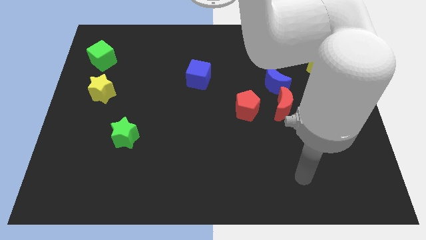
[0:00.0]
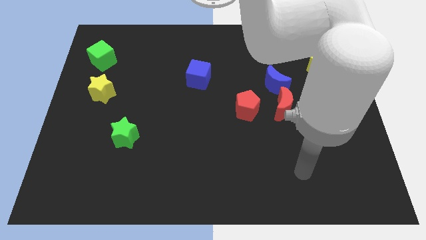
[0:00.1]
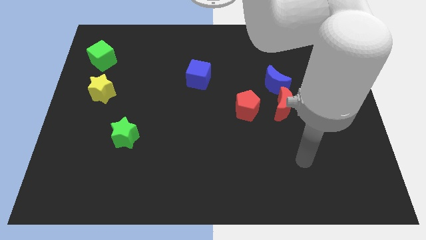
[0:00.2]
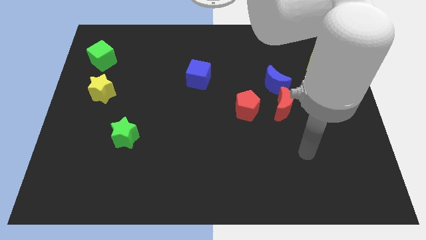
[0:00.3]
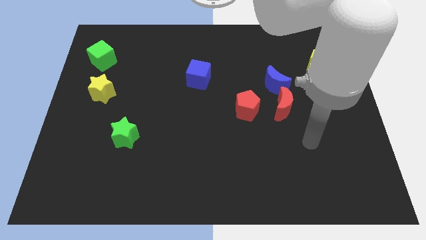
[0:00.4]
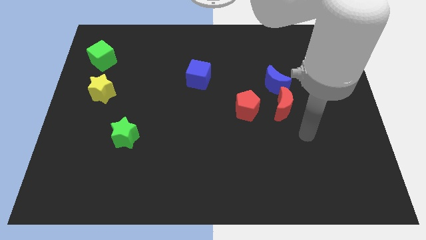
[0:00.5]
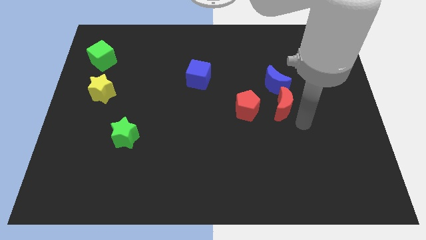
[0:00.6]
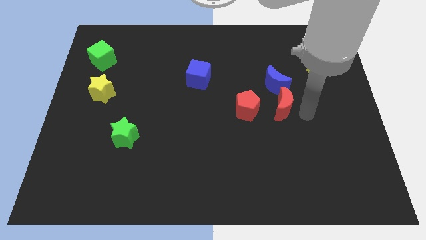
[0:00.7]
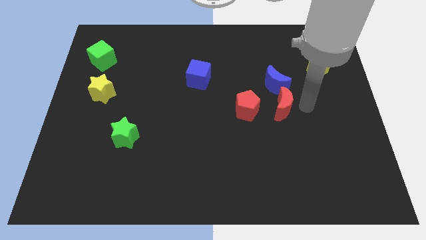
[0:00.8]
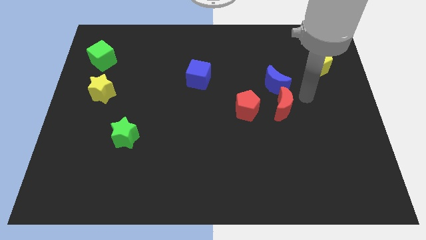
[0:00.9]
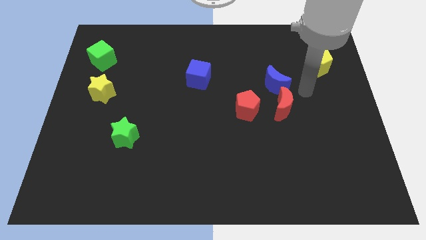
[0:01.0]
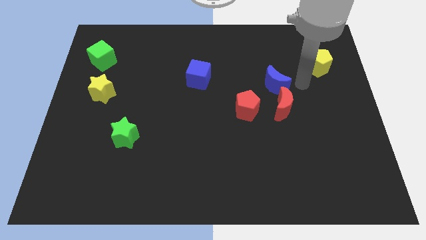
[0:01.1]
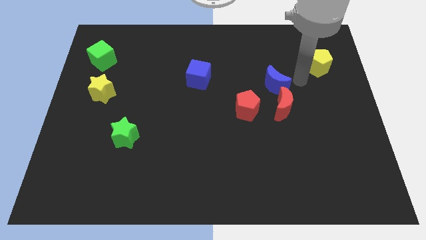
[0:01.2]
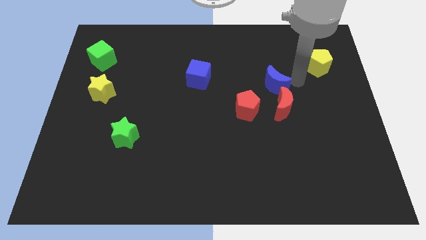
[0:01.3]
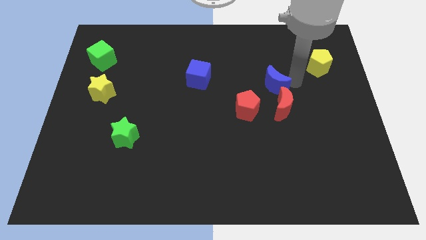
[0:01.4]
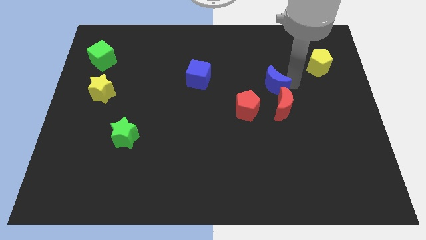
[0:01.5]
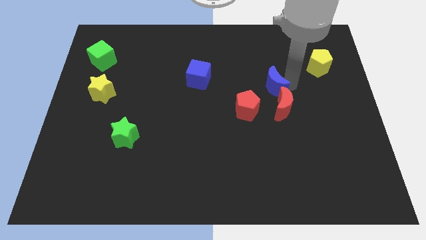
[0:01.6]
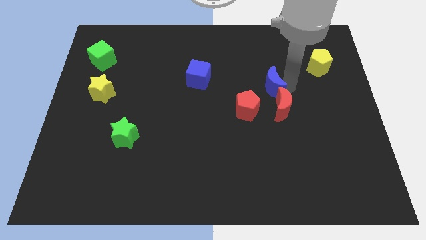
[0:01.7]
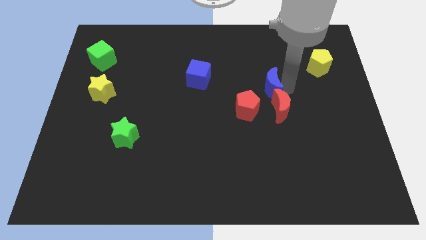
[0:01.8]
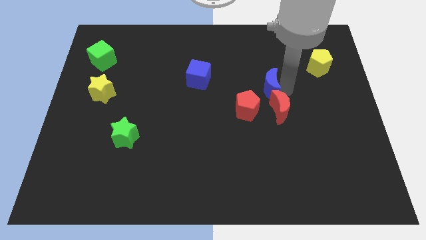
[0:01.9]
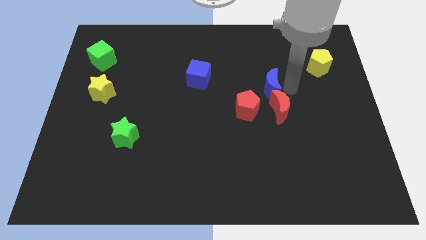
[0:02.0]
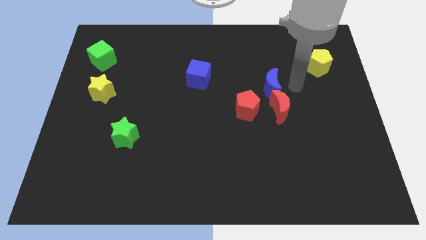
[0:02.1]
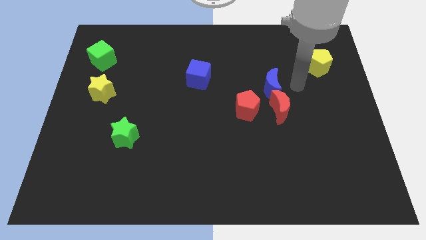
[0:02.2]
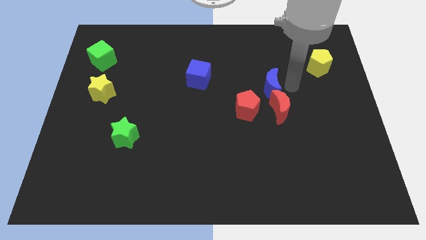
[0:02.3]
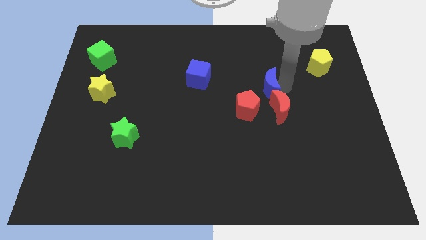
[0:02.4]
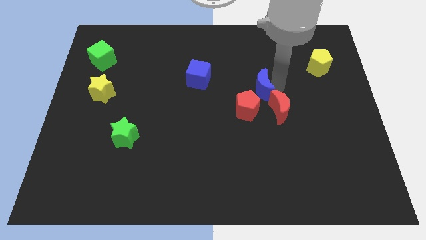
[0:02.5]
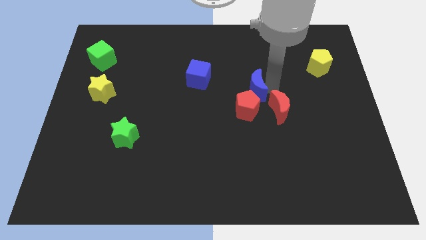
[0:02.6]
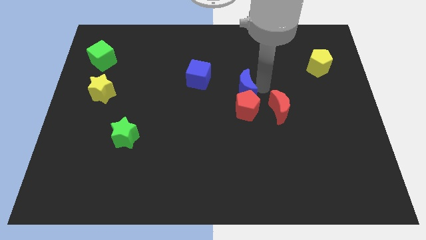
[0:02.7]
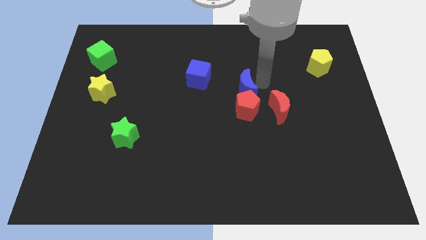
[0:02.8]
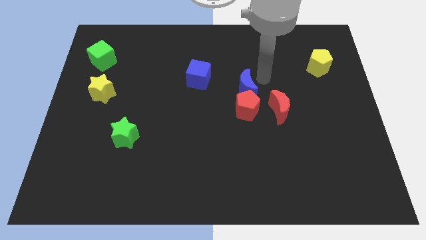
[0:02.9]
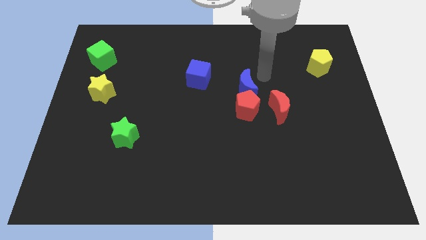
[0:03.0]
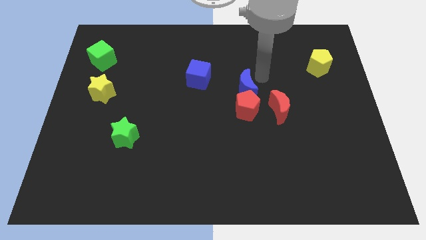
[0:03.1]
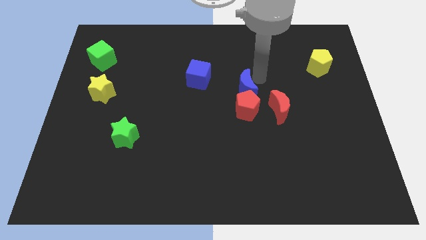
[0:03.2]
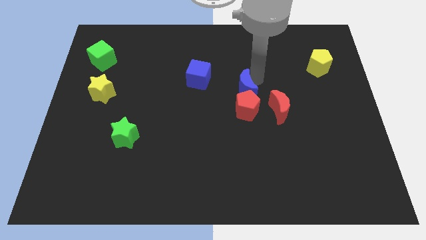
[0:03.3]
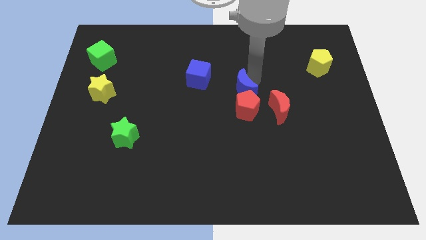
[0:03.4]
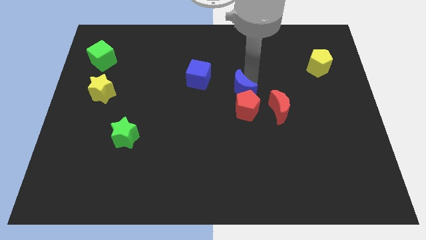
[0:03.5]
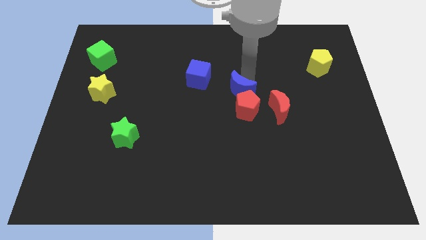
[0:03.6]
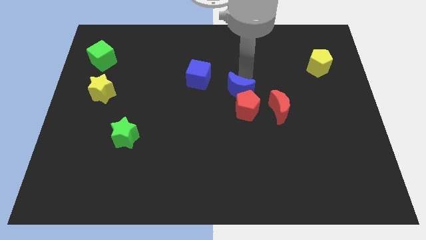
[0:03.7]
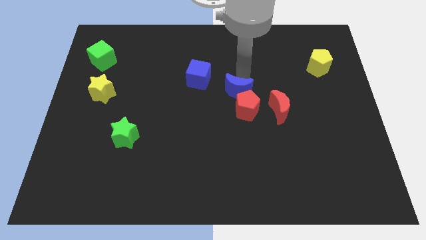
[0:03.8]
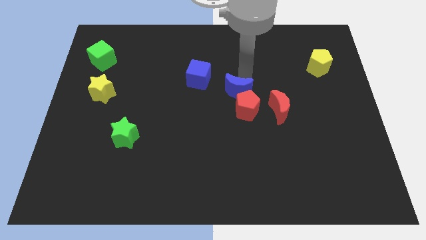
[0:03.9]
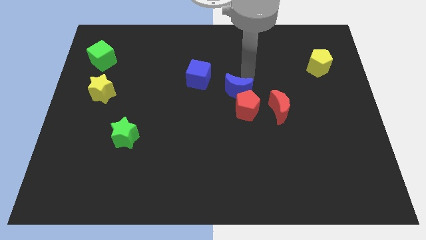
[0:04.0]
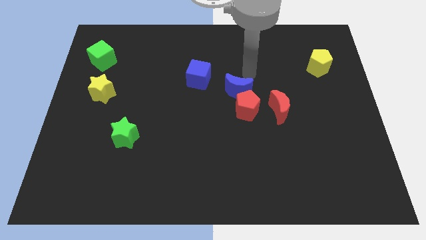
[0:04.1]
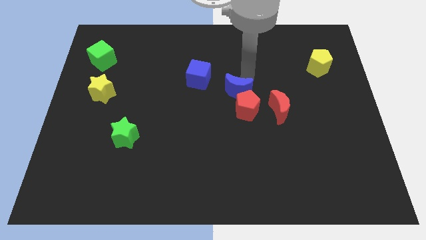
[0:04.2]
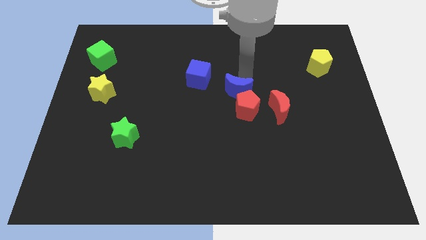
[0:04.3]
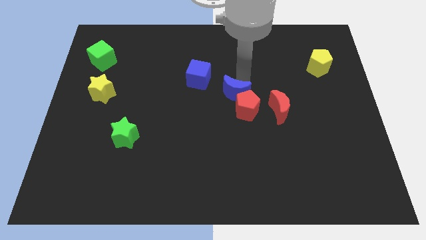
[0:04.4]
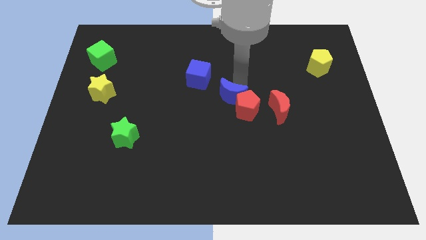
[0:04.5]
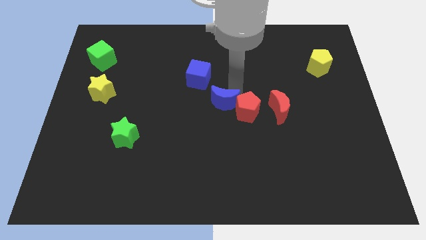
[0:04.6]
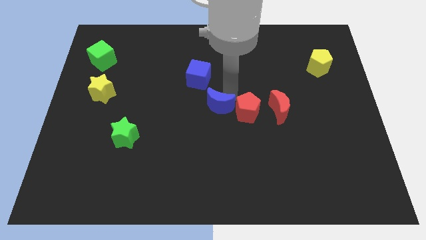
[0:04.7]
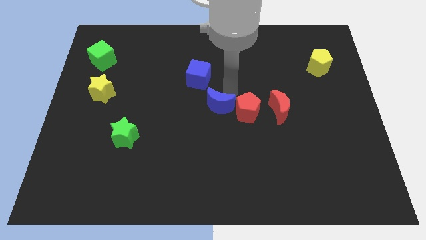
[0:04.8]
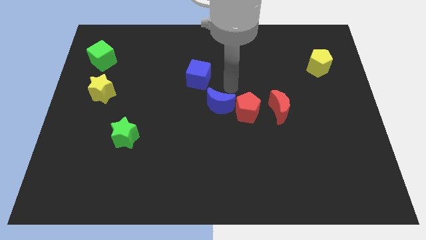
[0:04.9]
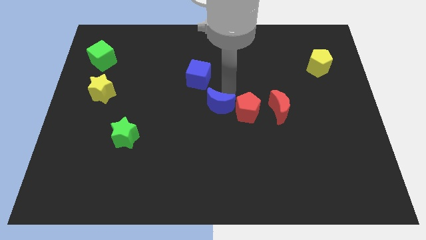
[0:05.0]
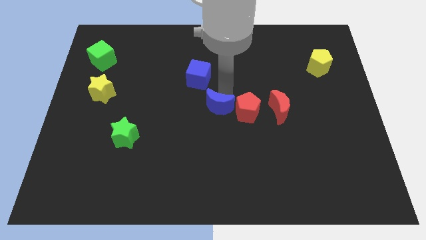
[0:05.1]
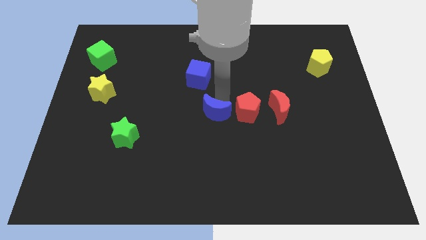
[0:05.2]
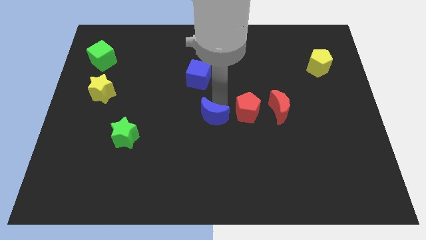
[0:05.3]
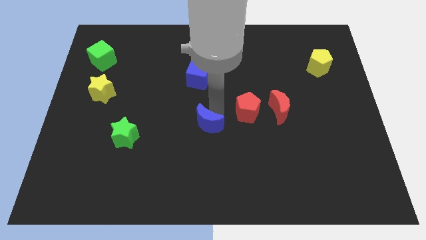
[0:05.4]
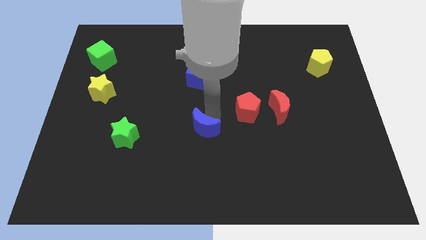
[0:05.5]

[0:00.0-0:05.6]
move the blue moon diagonally down and to the left

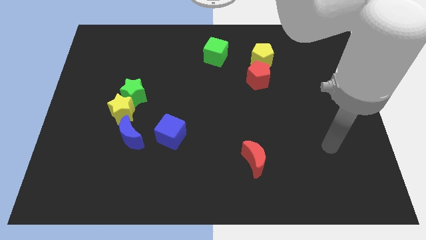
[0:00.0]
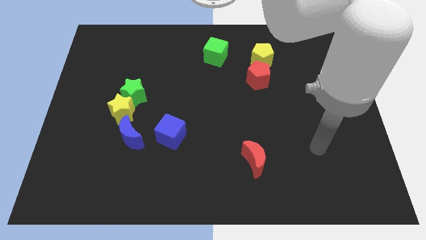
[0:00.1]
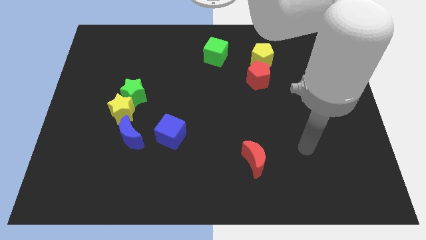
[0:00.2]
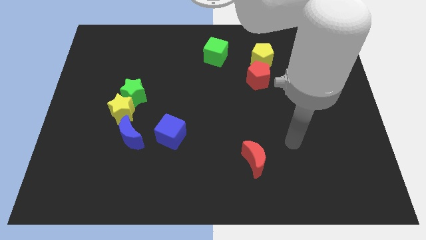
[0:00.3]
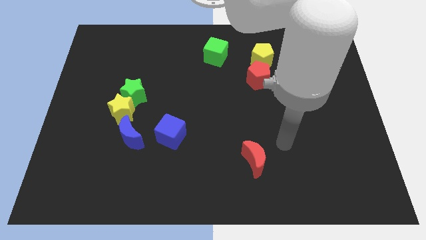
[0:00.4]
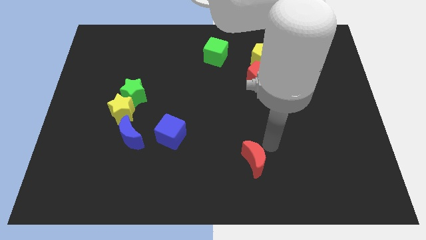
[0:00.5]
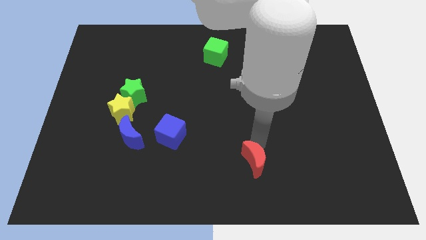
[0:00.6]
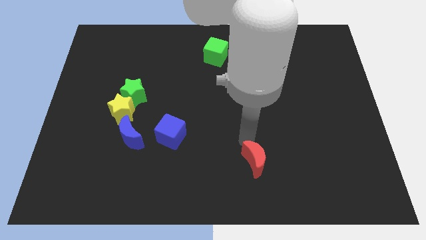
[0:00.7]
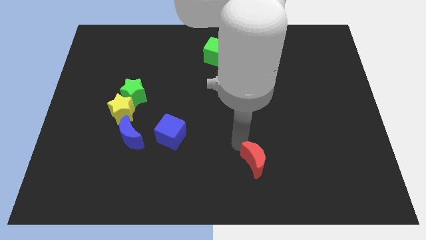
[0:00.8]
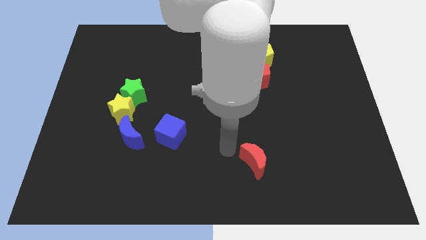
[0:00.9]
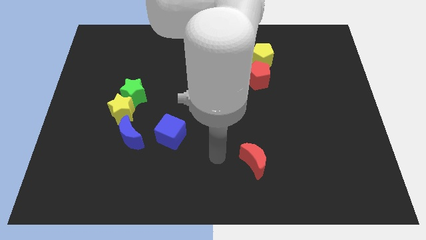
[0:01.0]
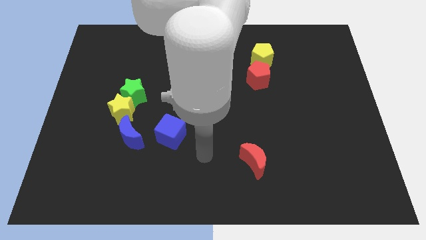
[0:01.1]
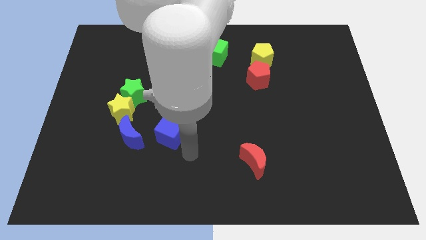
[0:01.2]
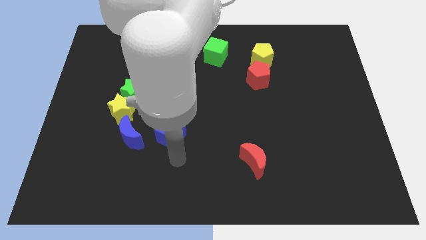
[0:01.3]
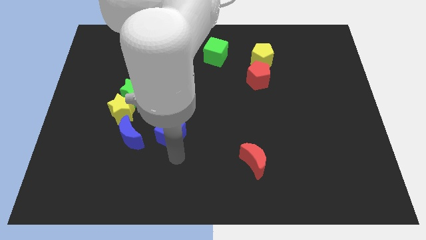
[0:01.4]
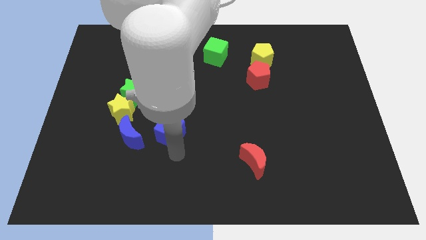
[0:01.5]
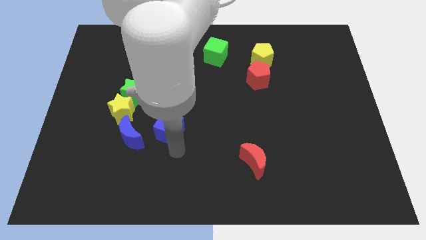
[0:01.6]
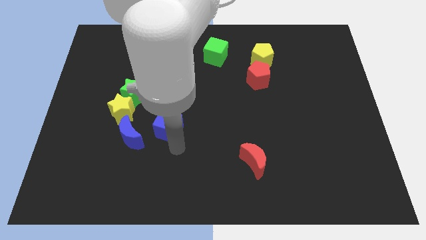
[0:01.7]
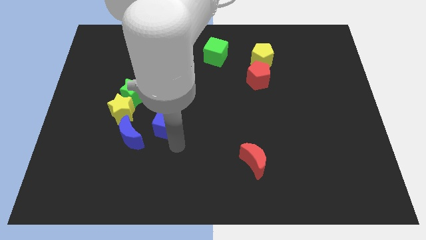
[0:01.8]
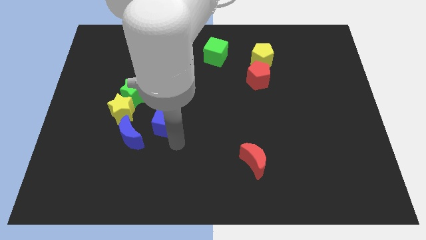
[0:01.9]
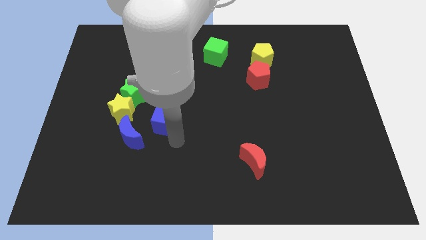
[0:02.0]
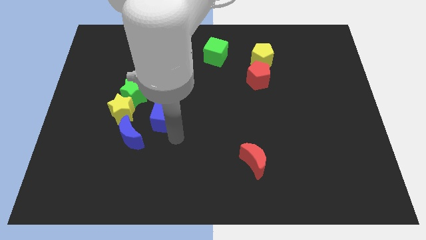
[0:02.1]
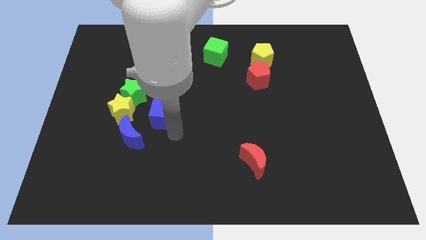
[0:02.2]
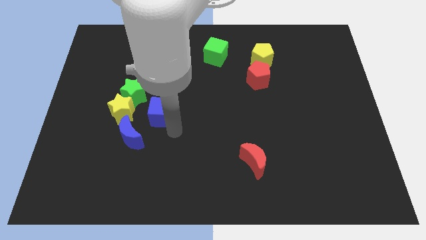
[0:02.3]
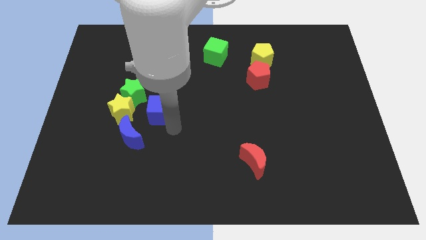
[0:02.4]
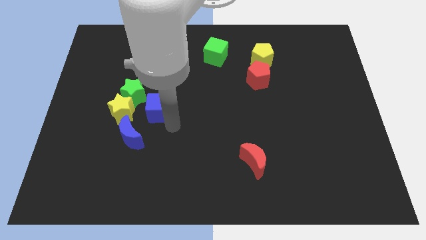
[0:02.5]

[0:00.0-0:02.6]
slightly slide the blue cube up and left
